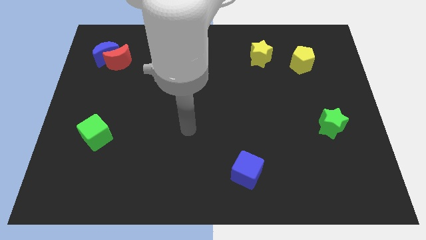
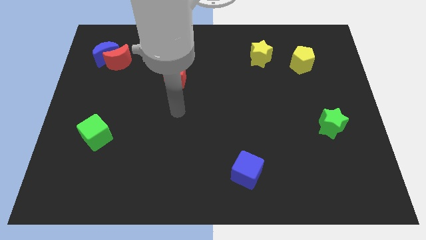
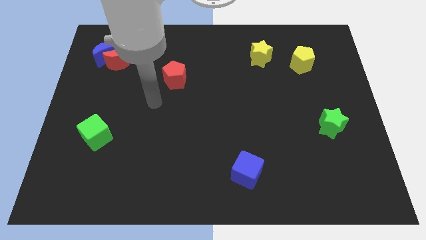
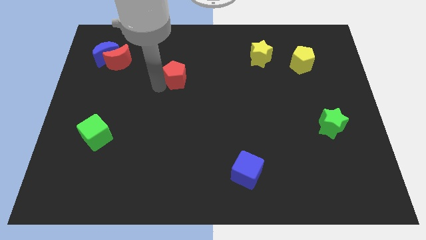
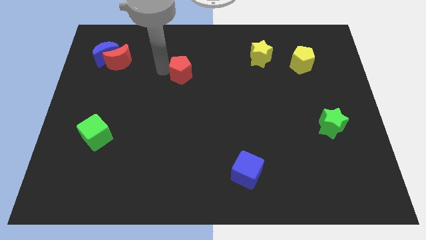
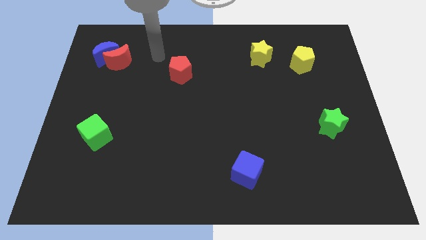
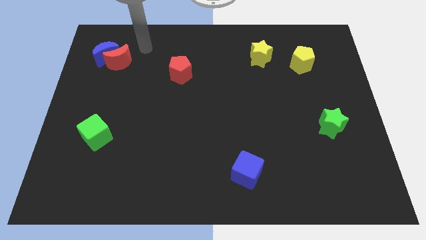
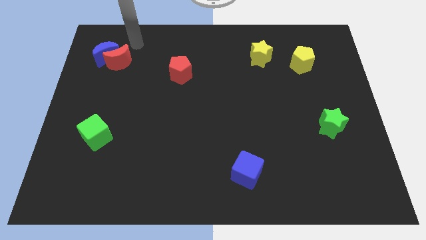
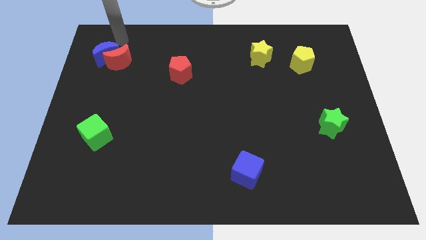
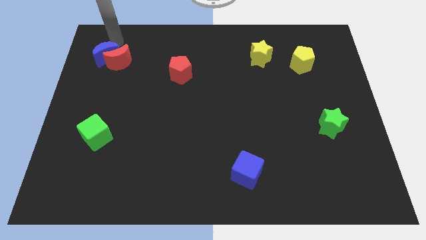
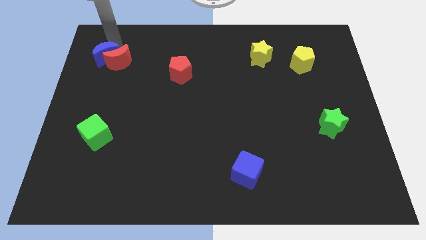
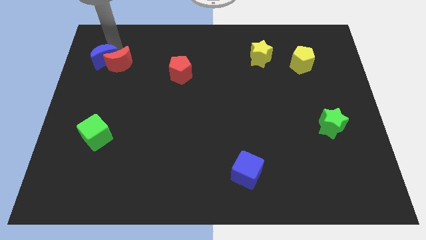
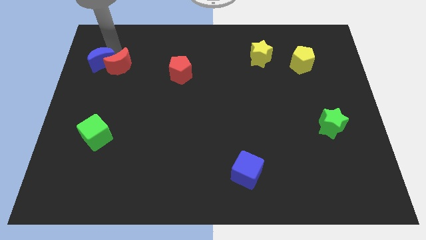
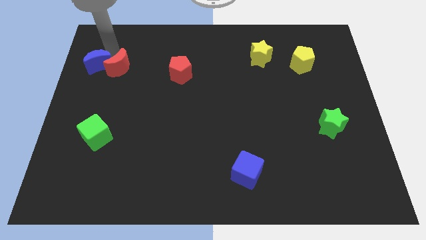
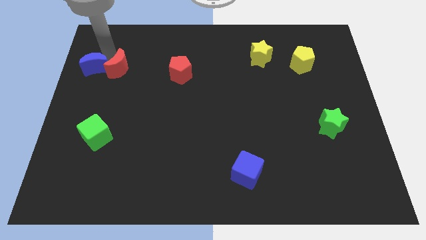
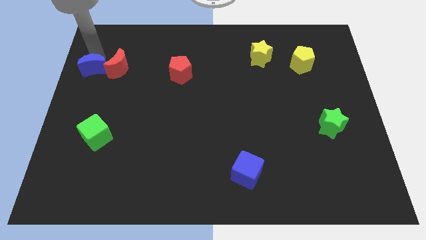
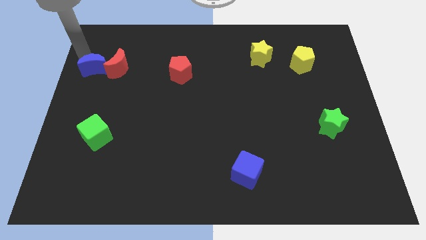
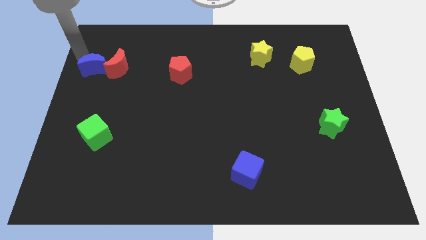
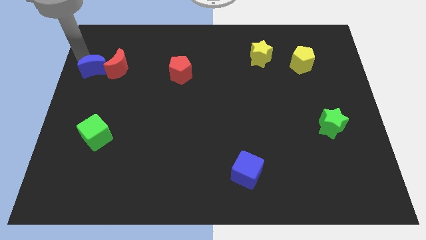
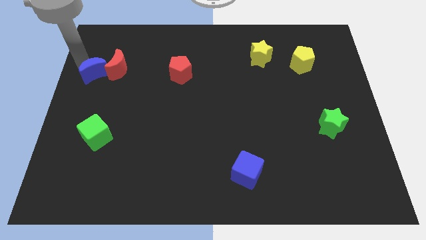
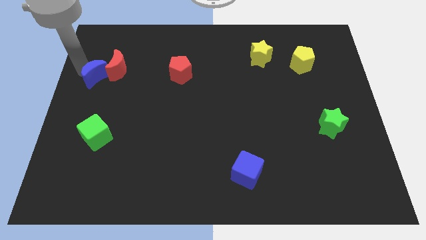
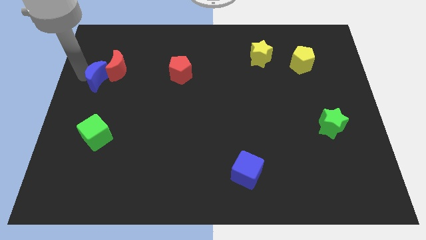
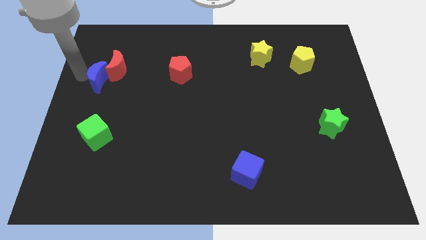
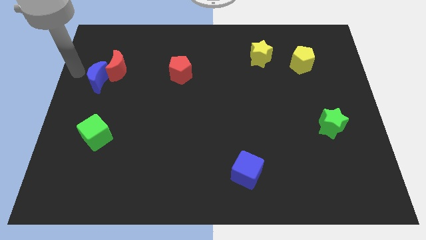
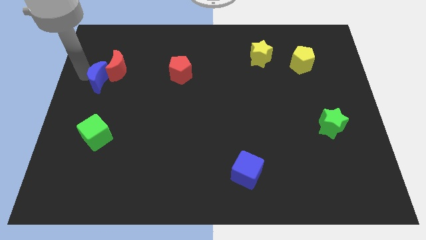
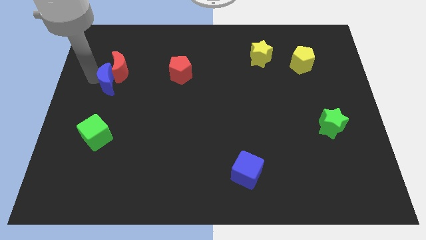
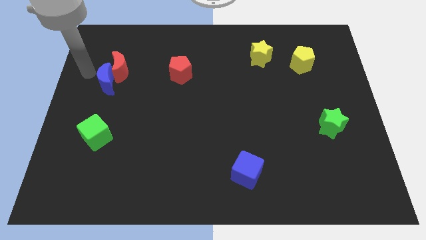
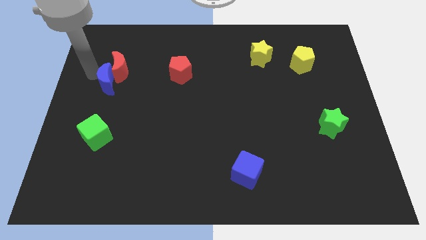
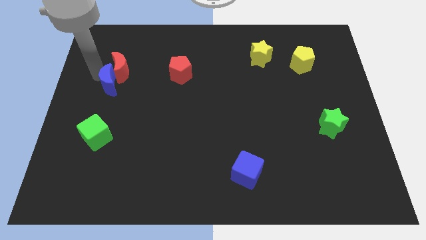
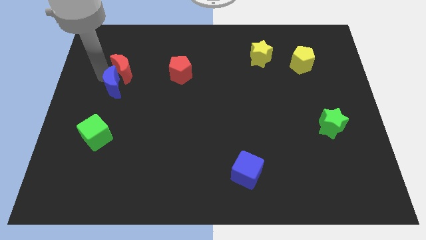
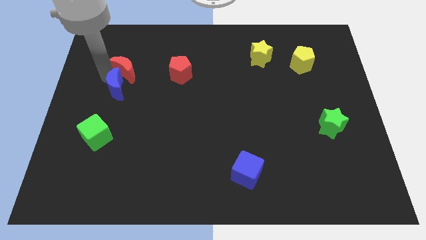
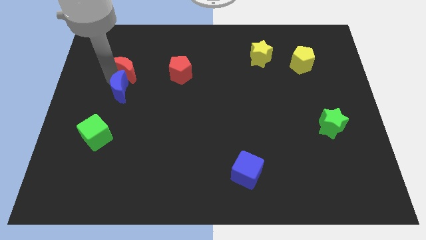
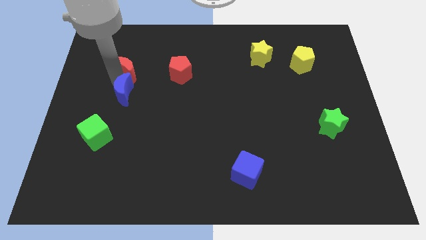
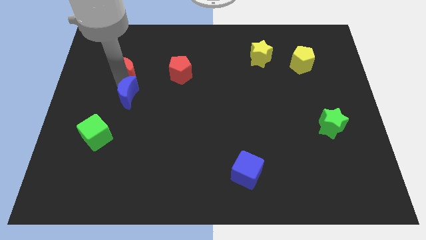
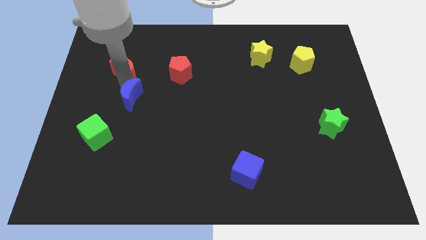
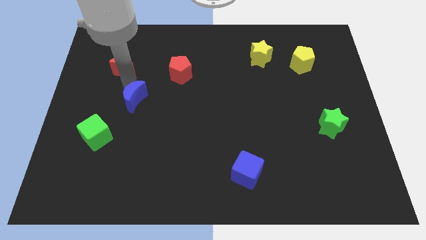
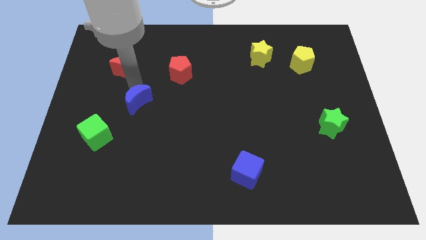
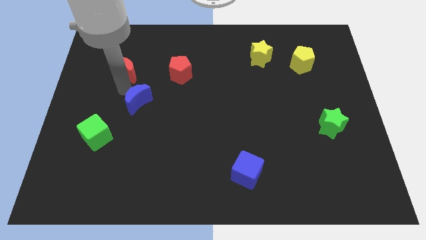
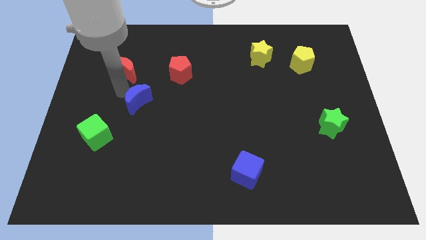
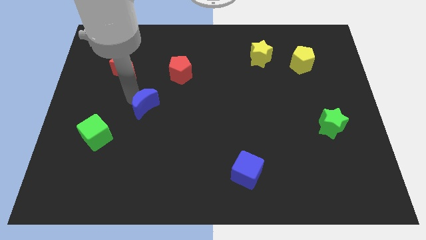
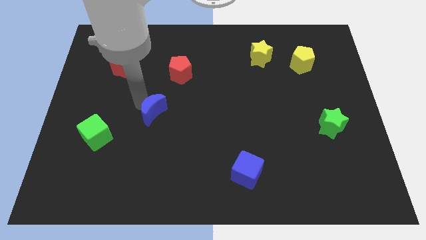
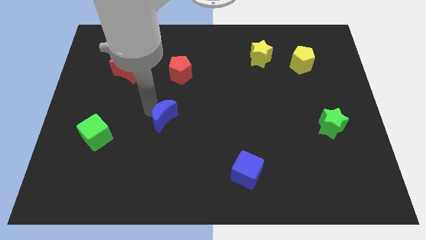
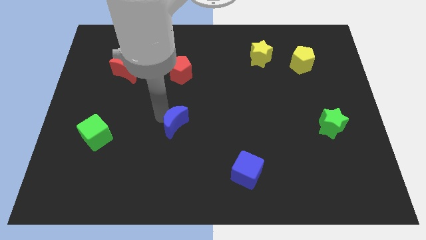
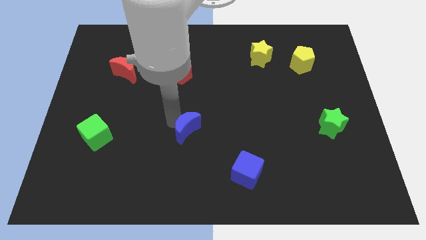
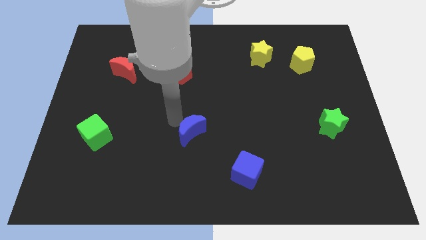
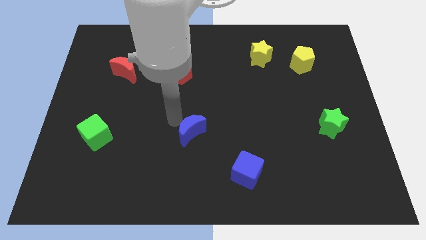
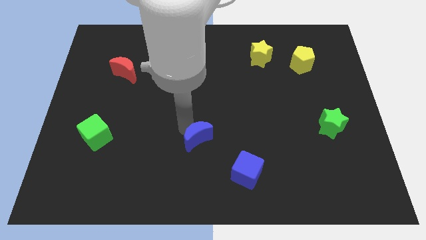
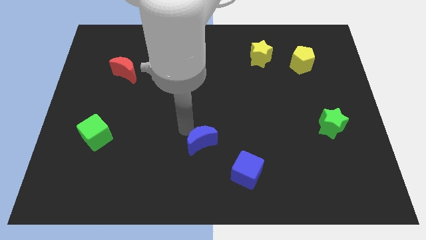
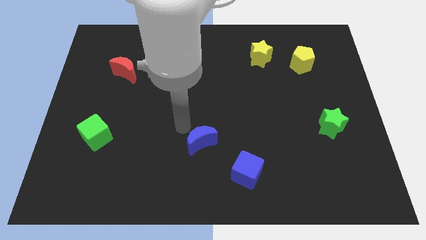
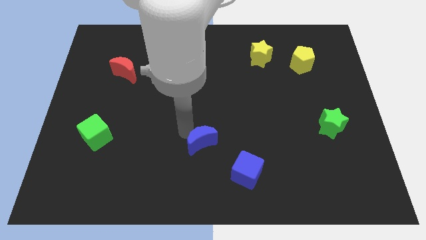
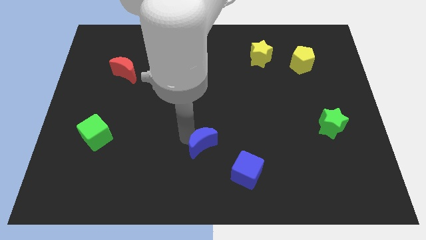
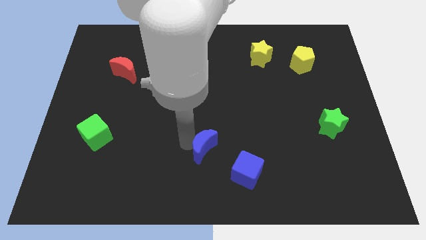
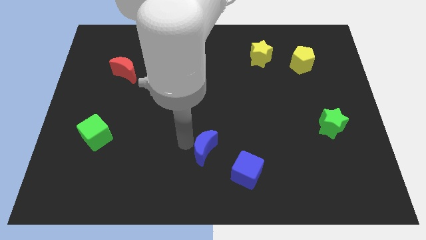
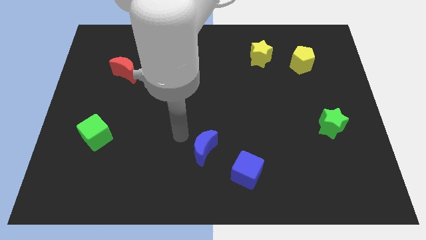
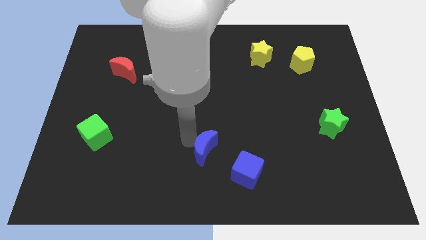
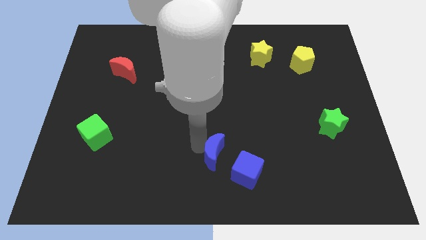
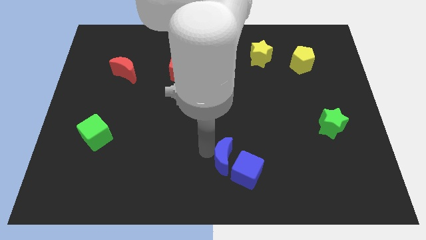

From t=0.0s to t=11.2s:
move the blue moon next to the blue cube

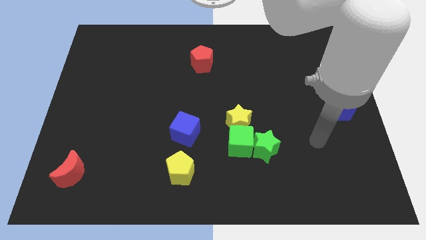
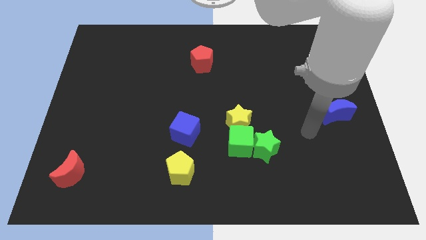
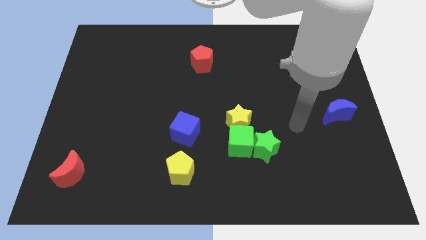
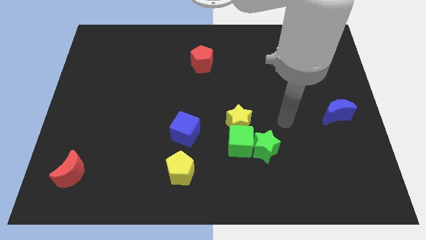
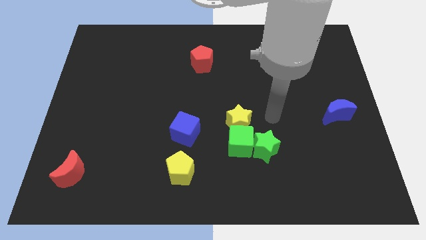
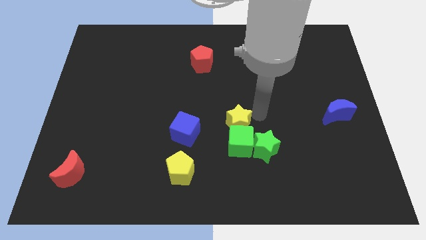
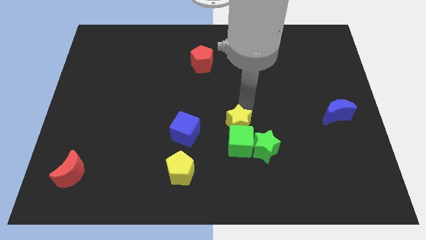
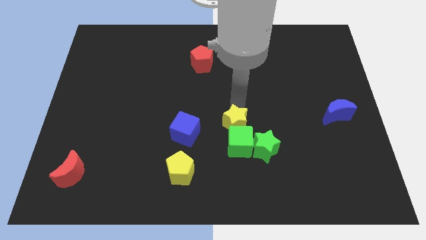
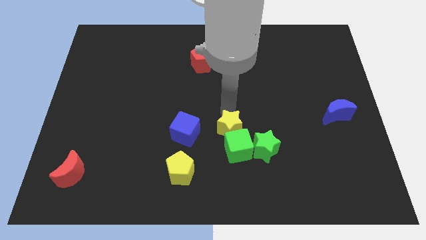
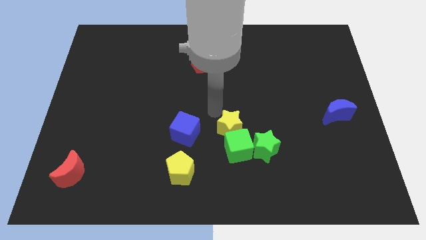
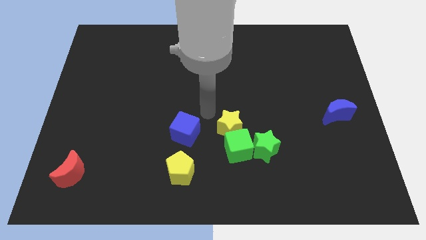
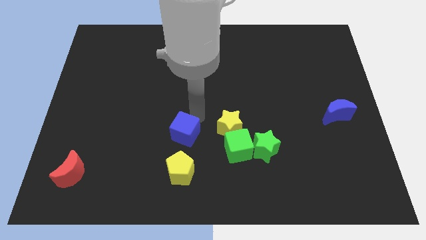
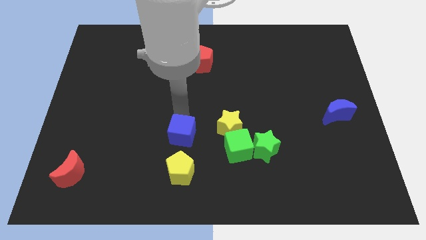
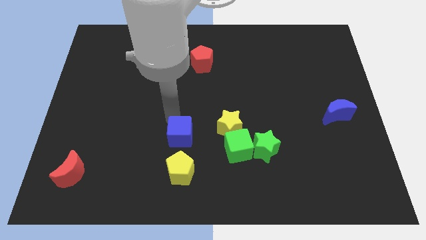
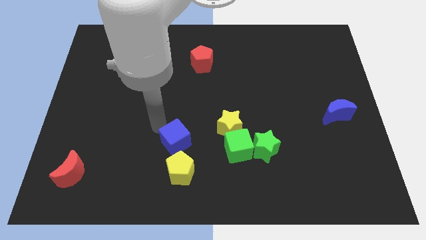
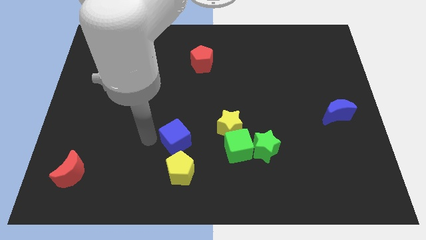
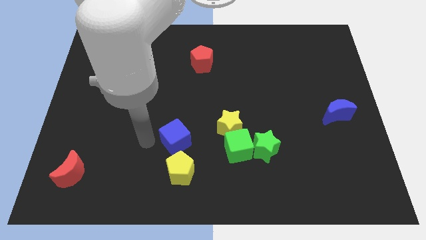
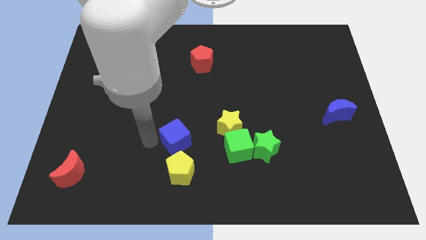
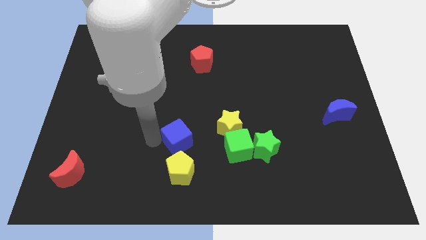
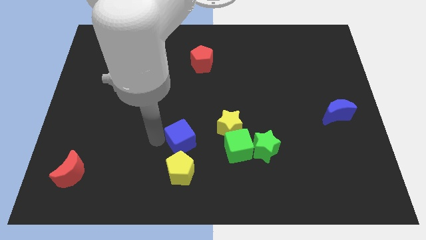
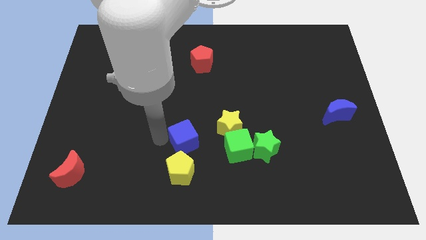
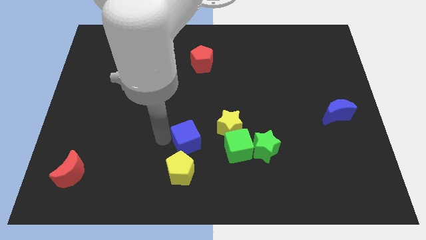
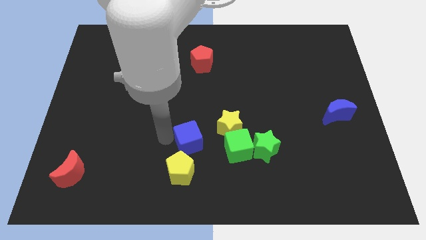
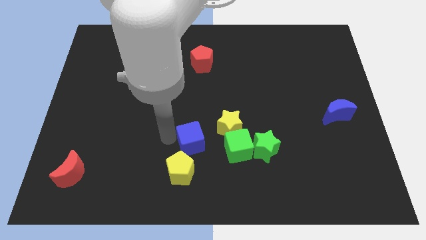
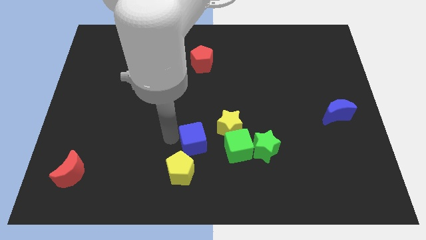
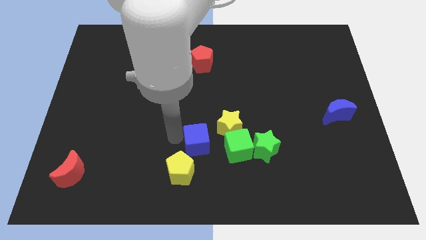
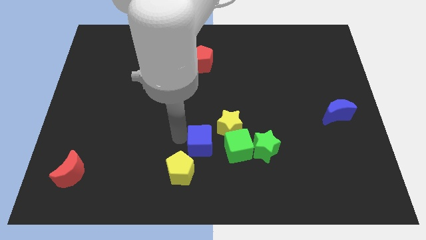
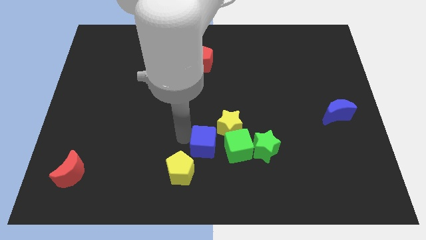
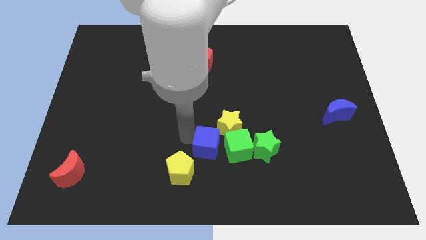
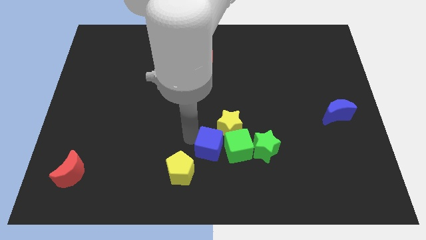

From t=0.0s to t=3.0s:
slide the blue cube next to the green cube
